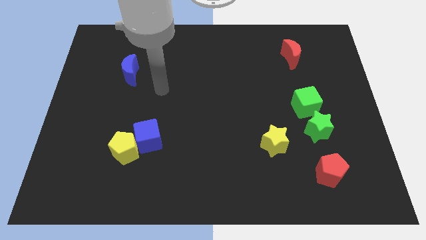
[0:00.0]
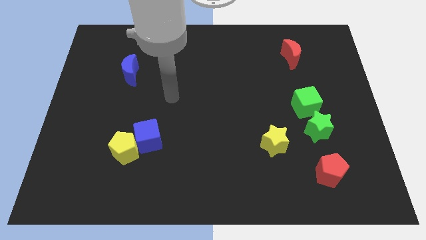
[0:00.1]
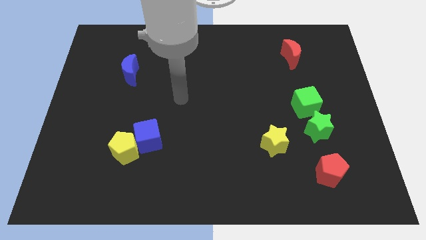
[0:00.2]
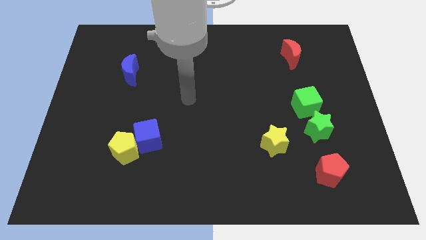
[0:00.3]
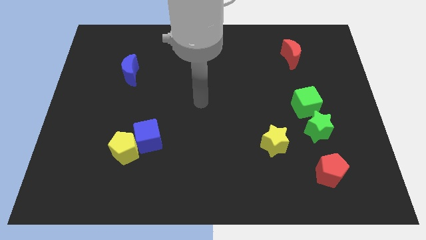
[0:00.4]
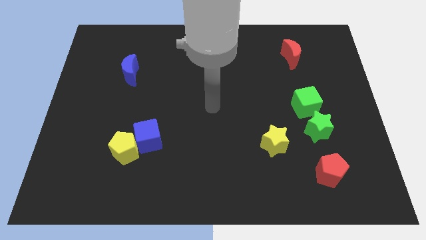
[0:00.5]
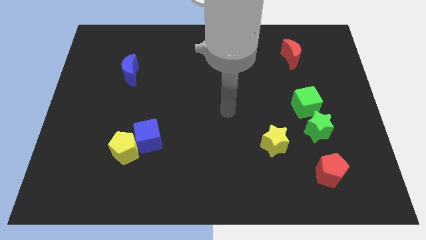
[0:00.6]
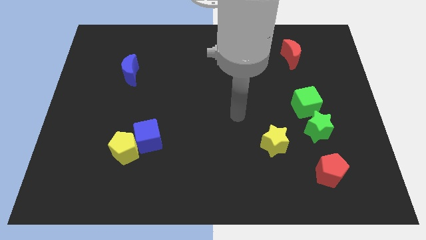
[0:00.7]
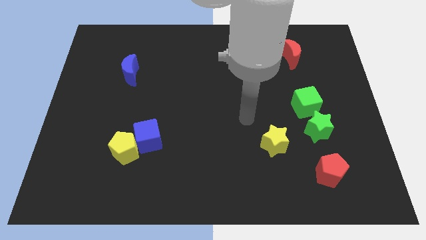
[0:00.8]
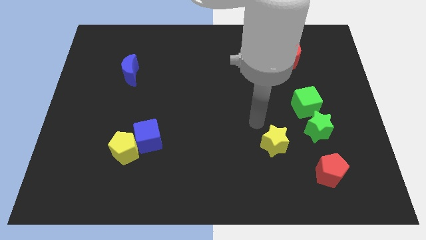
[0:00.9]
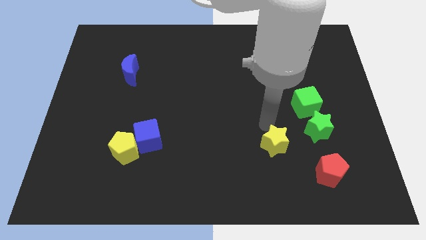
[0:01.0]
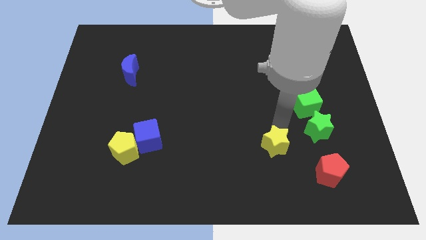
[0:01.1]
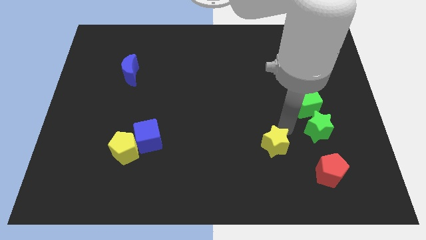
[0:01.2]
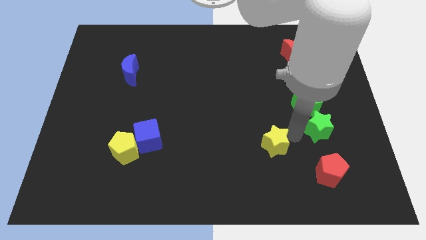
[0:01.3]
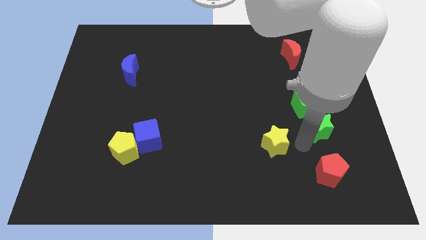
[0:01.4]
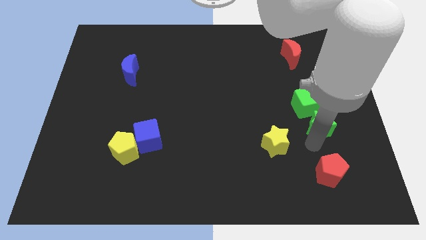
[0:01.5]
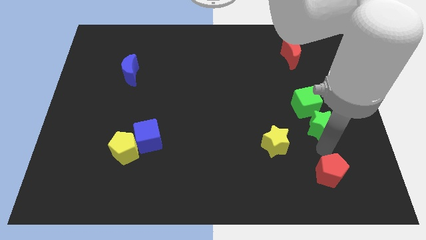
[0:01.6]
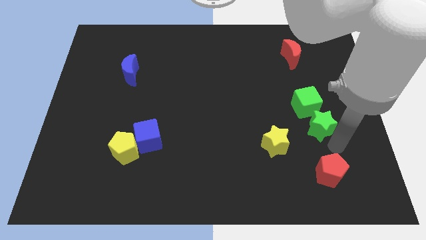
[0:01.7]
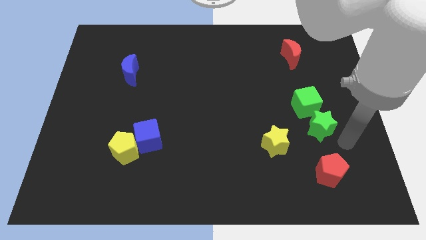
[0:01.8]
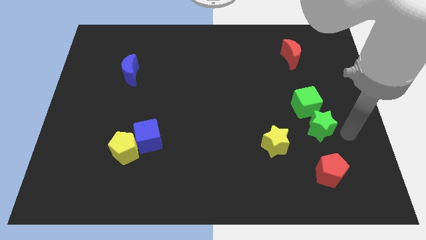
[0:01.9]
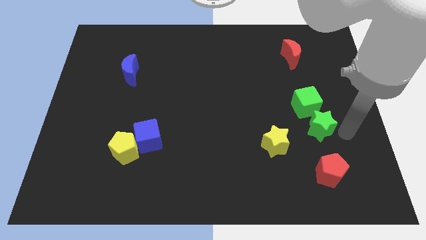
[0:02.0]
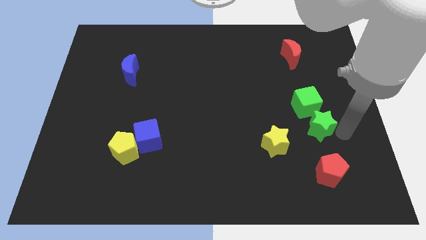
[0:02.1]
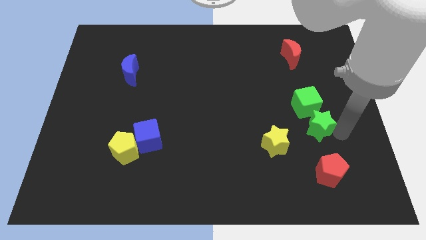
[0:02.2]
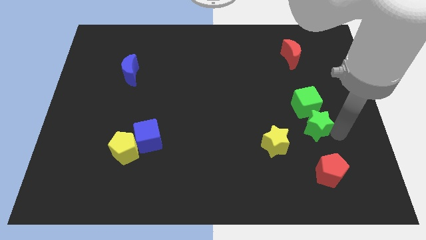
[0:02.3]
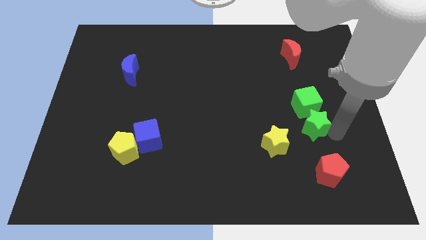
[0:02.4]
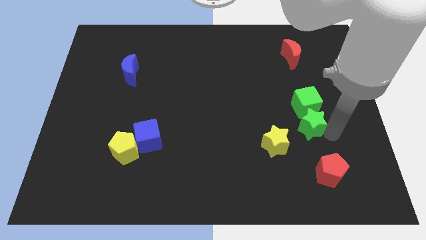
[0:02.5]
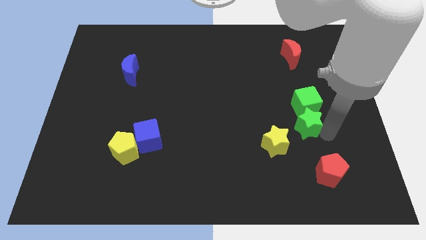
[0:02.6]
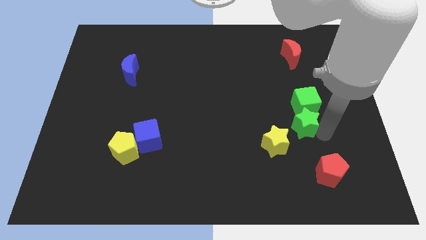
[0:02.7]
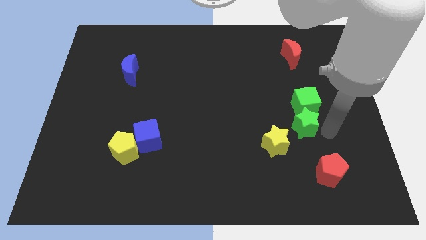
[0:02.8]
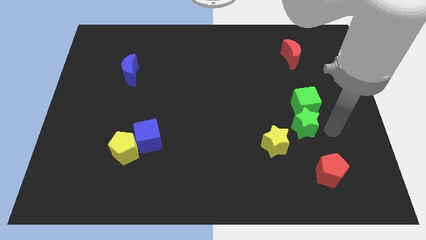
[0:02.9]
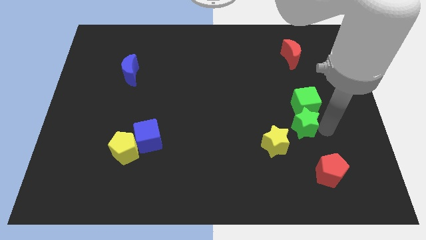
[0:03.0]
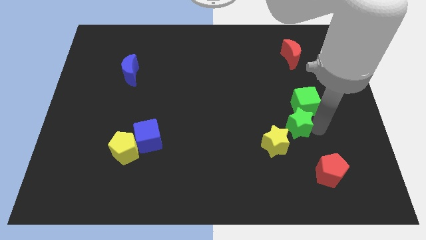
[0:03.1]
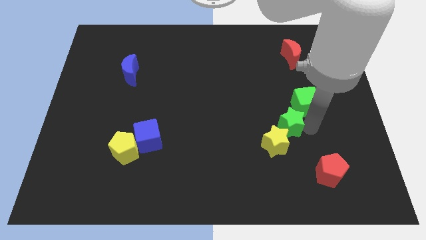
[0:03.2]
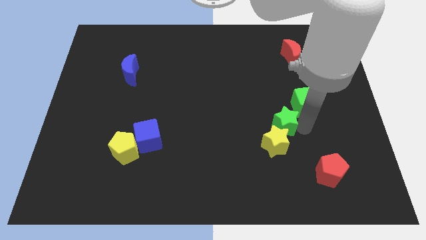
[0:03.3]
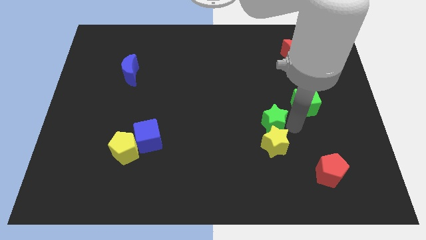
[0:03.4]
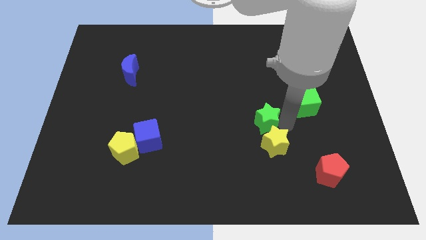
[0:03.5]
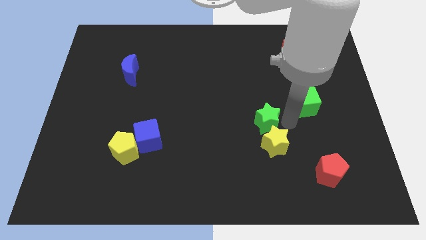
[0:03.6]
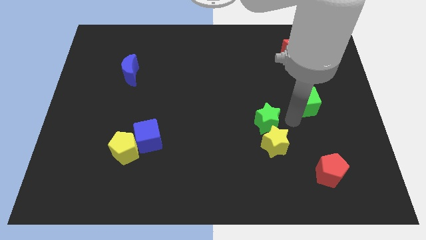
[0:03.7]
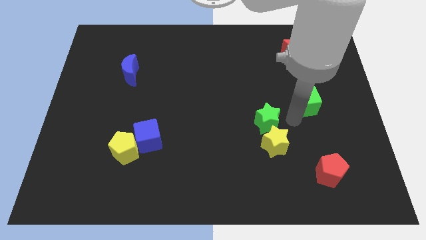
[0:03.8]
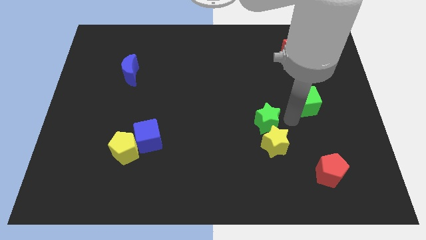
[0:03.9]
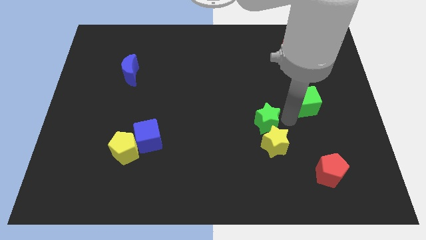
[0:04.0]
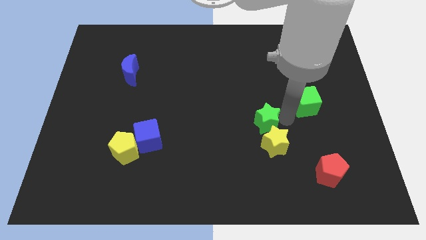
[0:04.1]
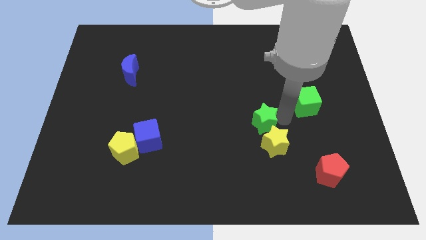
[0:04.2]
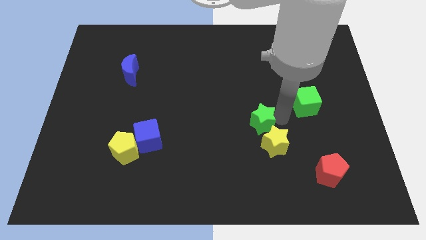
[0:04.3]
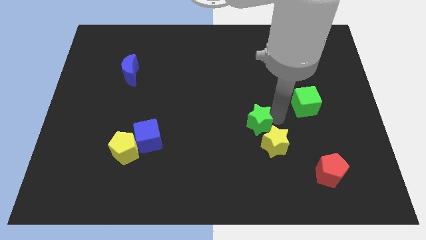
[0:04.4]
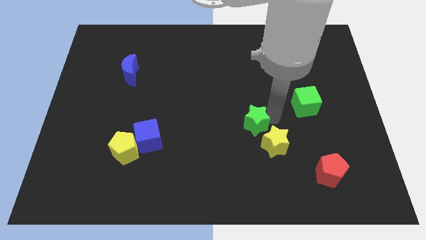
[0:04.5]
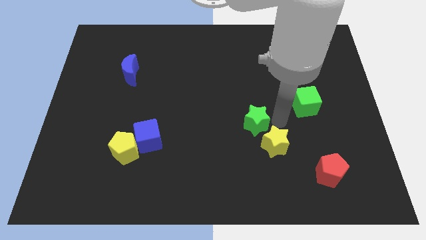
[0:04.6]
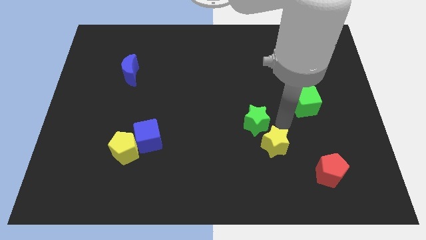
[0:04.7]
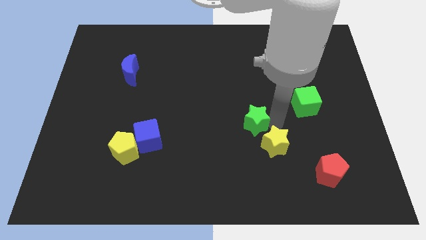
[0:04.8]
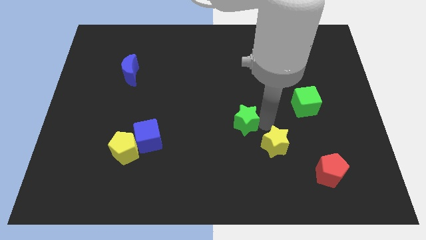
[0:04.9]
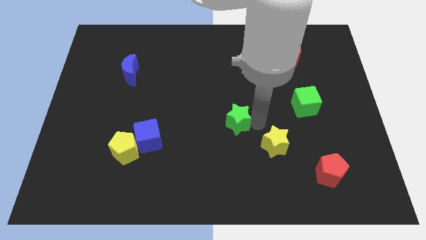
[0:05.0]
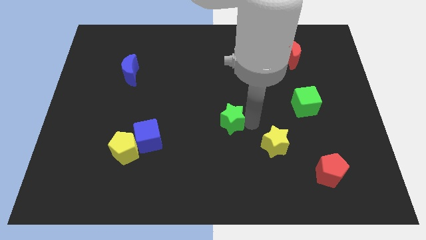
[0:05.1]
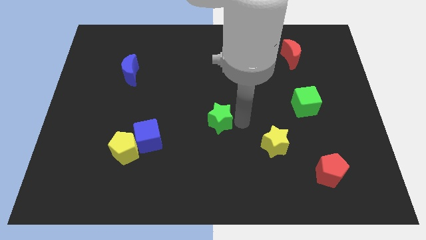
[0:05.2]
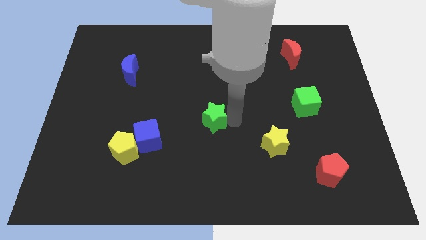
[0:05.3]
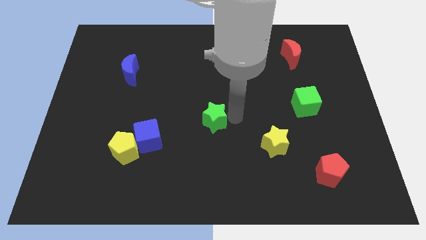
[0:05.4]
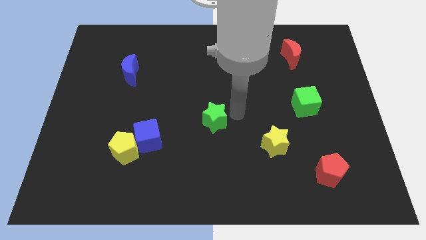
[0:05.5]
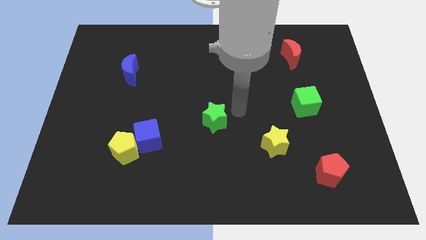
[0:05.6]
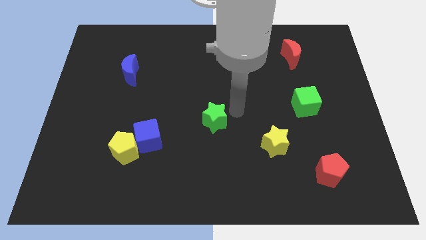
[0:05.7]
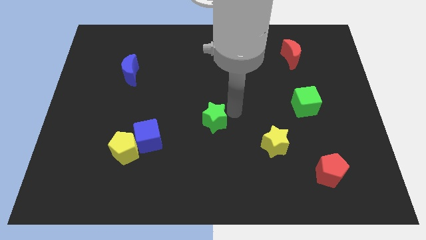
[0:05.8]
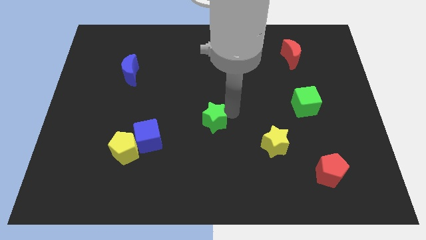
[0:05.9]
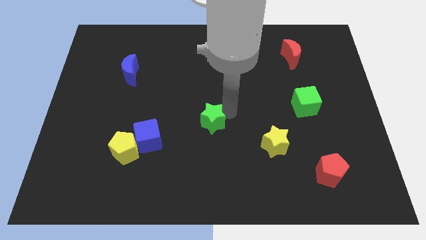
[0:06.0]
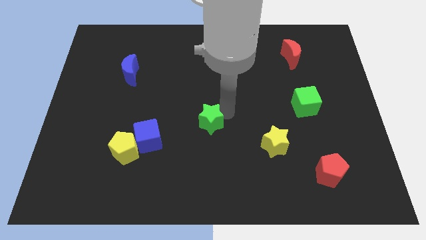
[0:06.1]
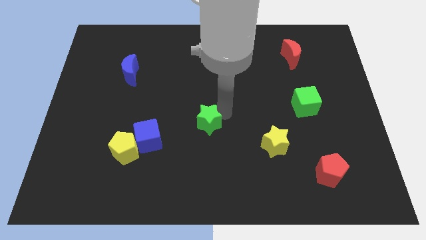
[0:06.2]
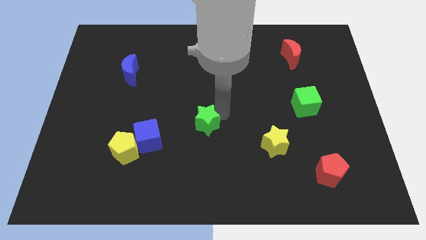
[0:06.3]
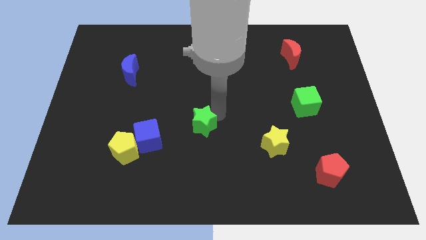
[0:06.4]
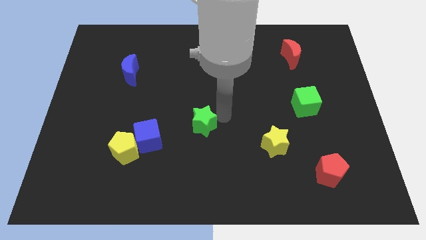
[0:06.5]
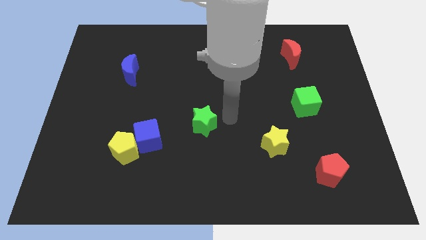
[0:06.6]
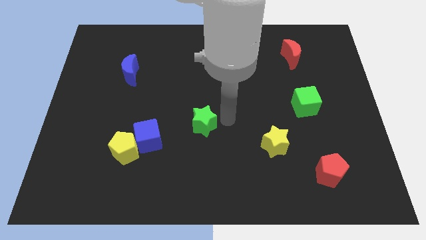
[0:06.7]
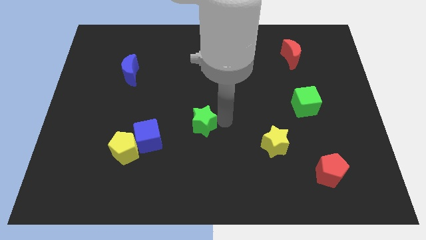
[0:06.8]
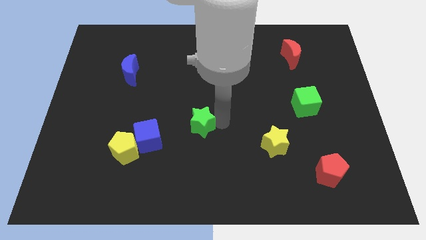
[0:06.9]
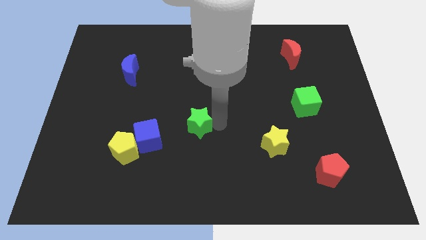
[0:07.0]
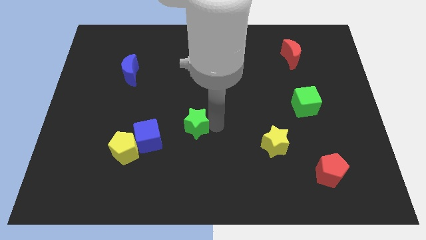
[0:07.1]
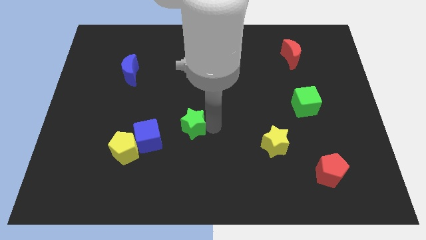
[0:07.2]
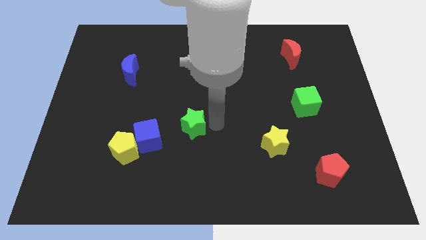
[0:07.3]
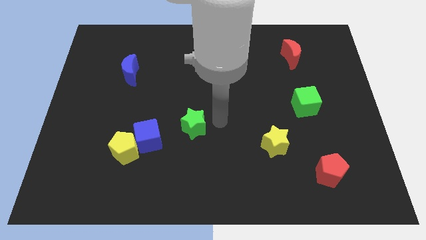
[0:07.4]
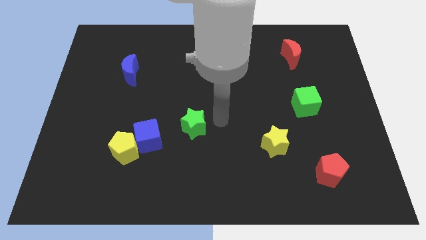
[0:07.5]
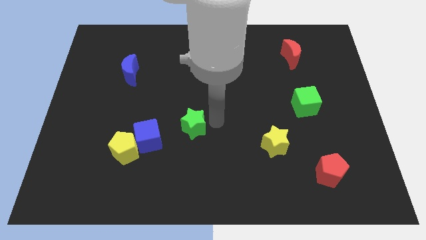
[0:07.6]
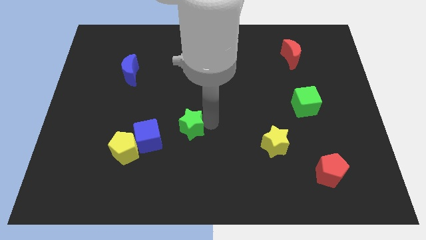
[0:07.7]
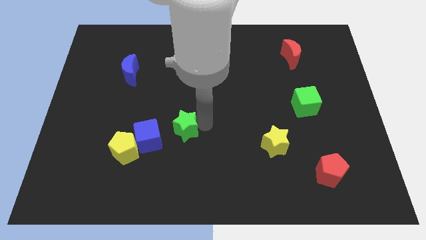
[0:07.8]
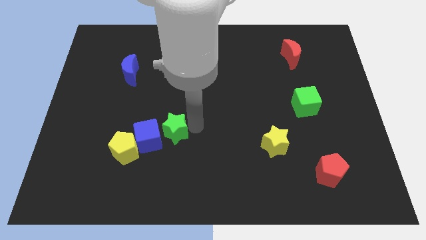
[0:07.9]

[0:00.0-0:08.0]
put the green star close to the blue cube
